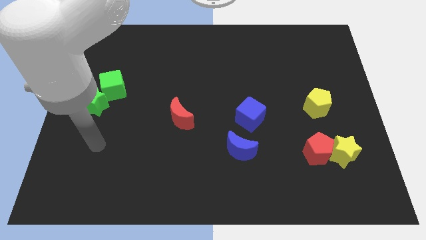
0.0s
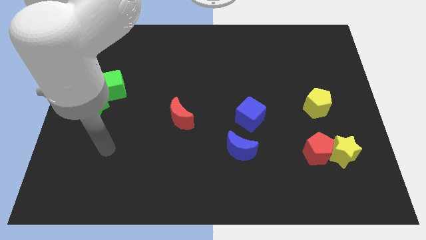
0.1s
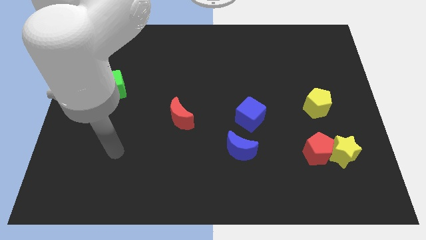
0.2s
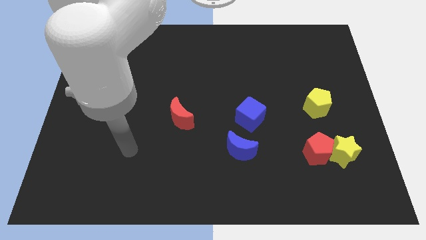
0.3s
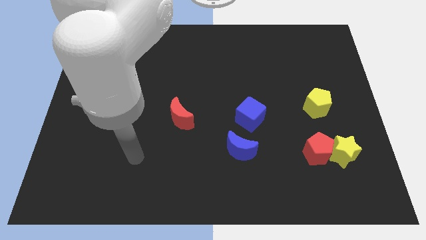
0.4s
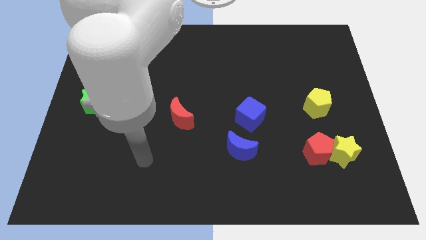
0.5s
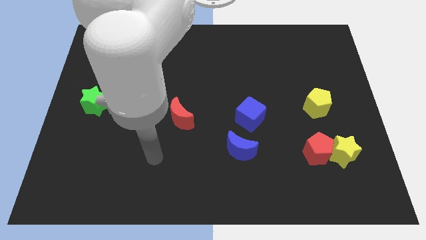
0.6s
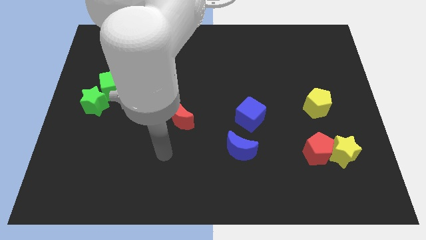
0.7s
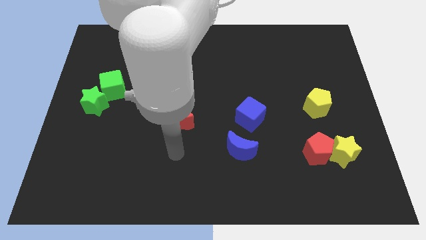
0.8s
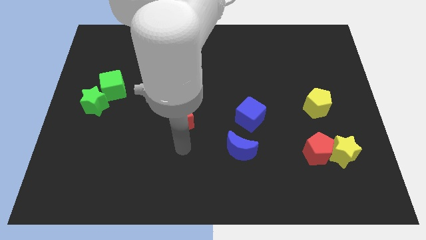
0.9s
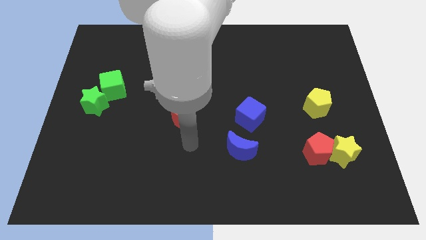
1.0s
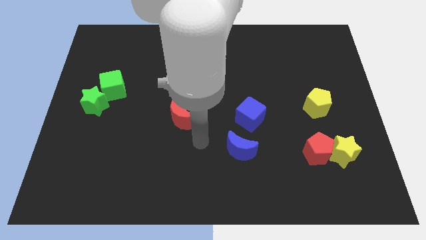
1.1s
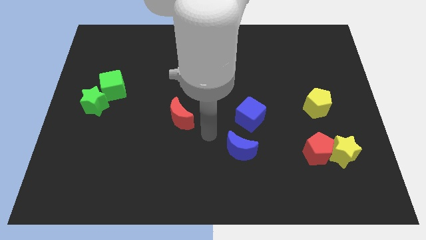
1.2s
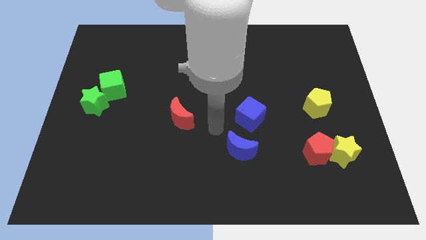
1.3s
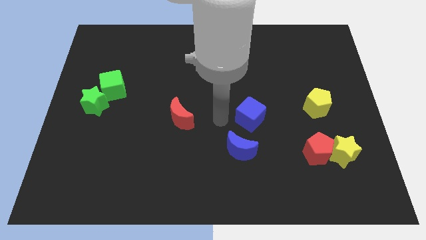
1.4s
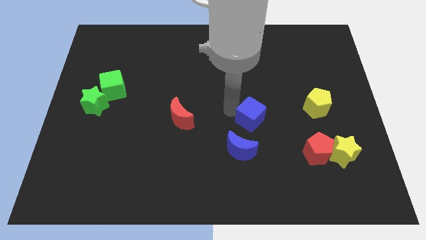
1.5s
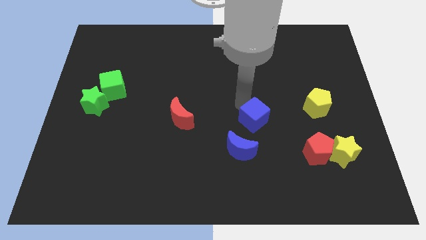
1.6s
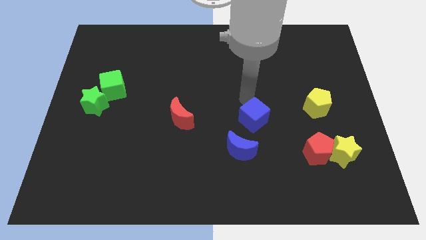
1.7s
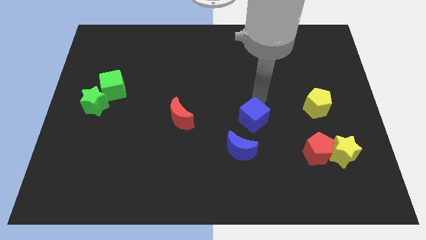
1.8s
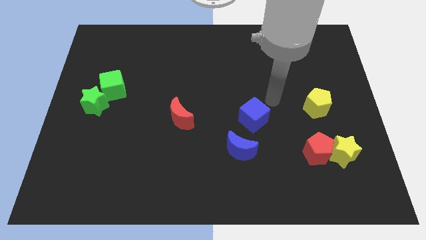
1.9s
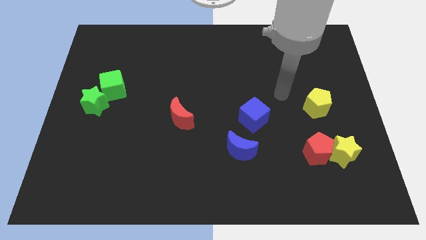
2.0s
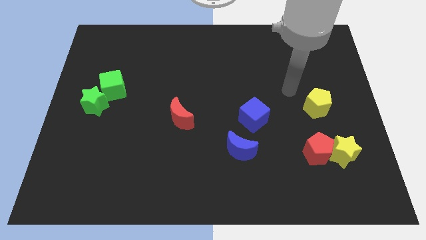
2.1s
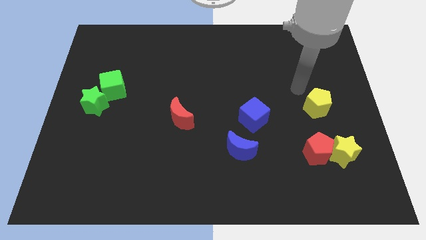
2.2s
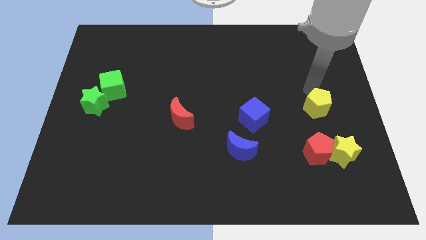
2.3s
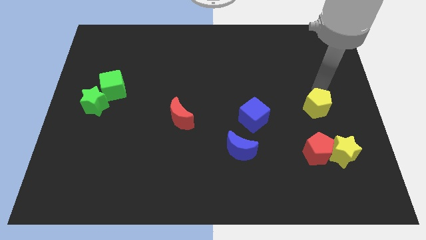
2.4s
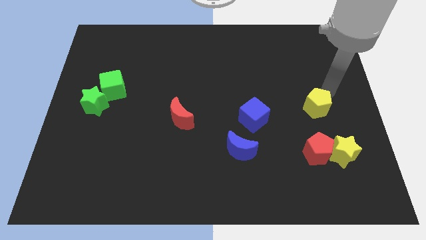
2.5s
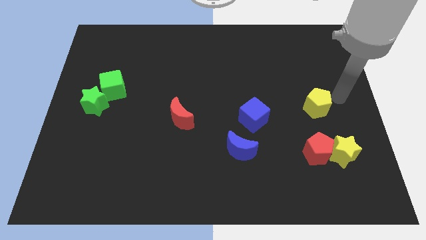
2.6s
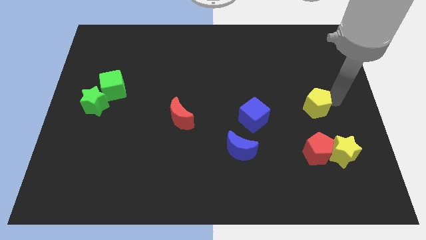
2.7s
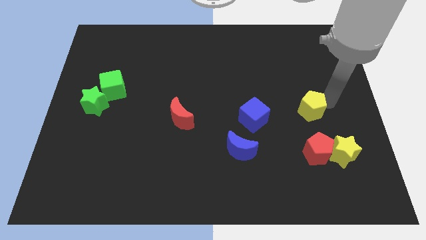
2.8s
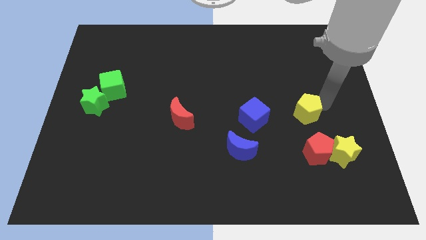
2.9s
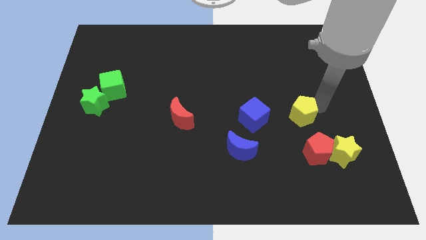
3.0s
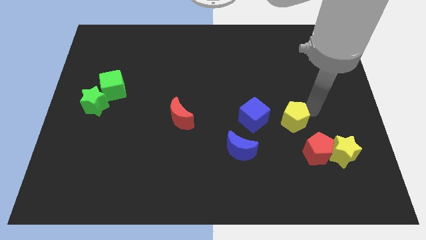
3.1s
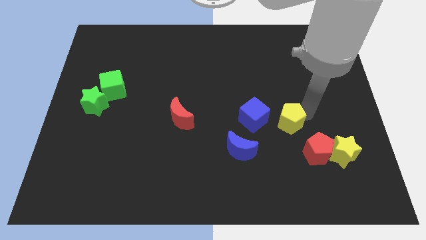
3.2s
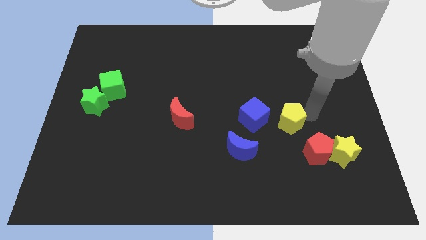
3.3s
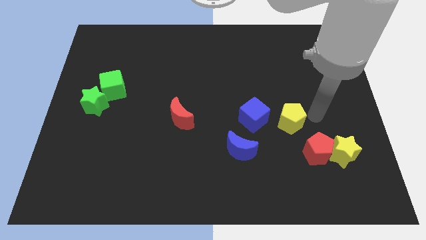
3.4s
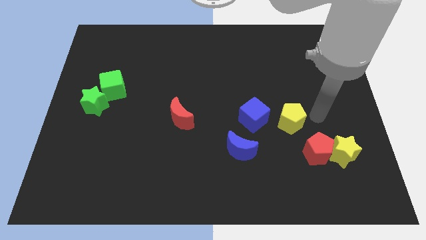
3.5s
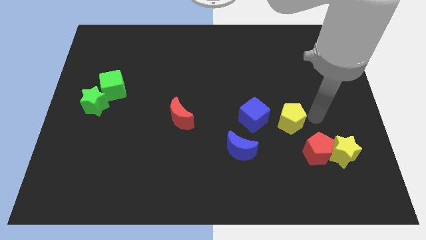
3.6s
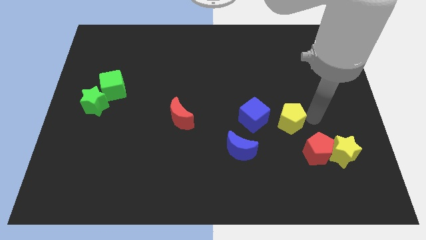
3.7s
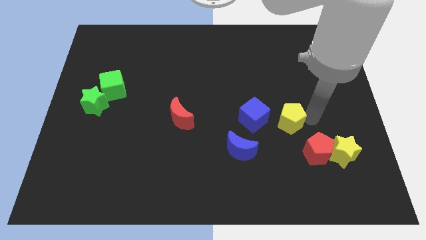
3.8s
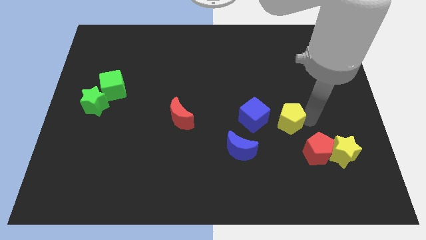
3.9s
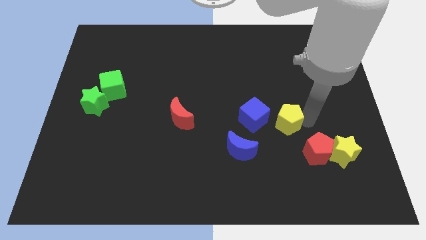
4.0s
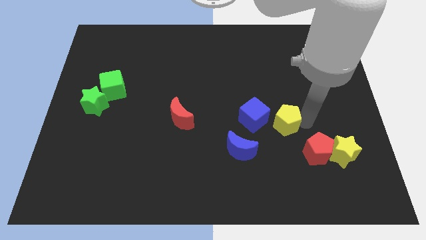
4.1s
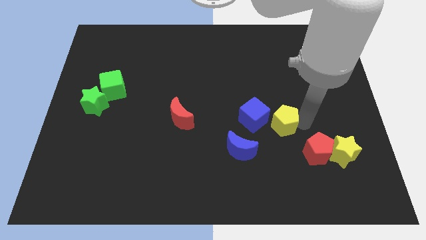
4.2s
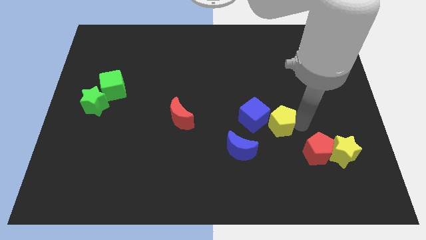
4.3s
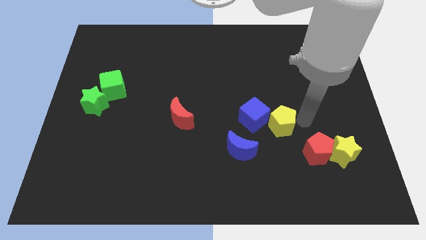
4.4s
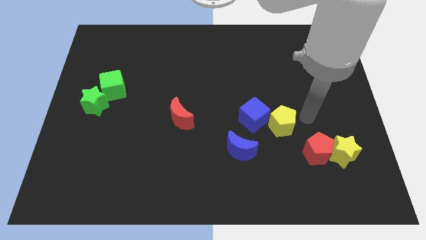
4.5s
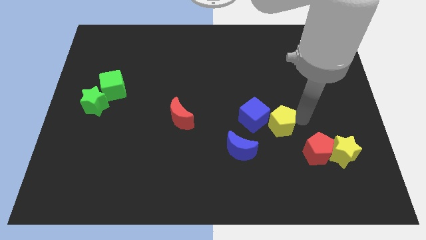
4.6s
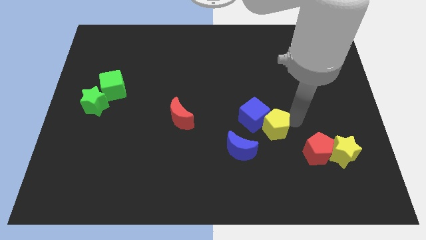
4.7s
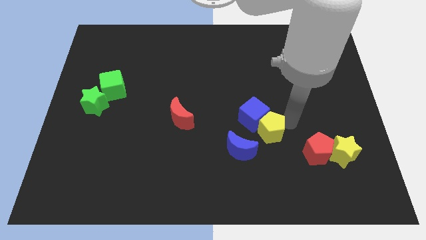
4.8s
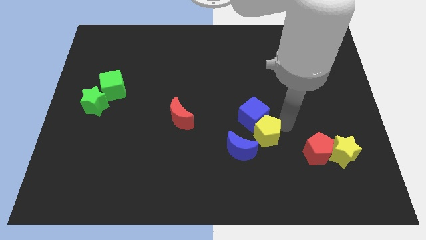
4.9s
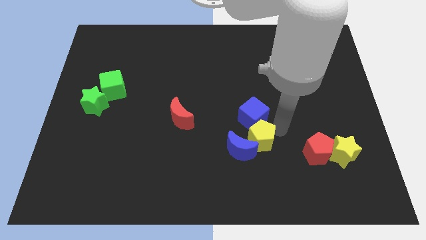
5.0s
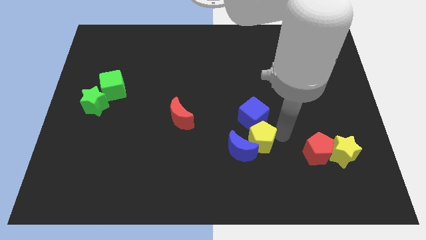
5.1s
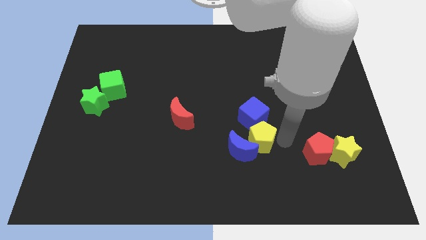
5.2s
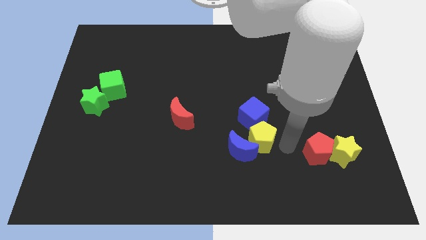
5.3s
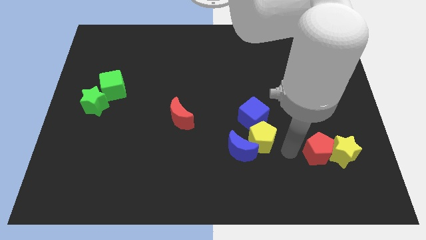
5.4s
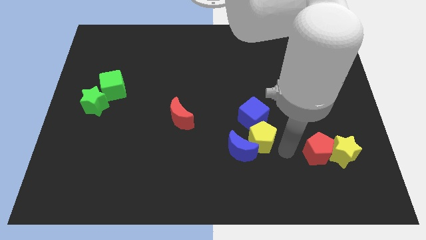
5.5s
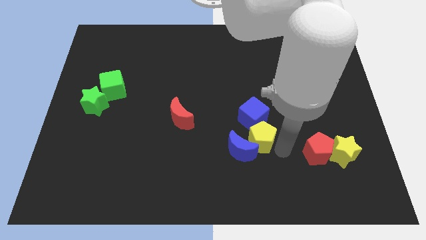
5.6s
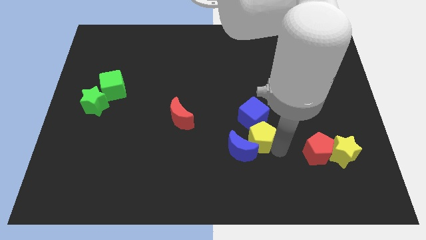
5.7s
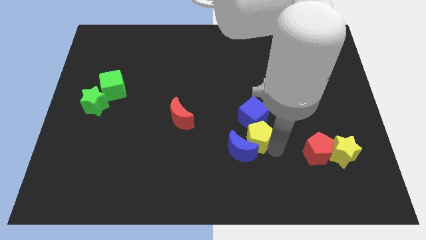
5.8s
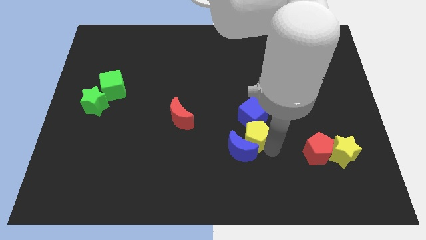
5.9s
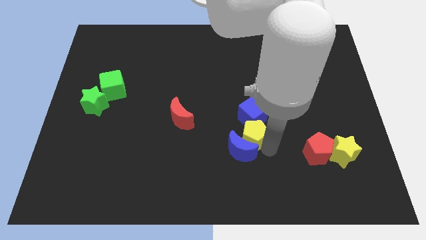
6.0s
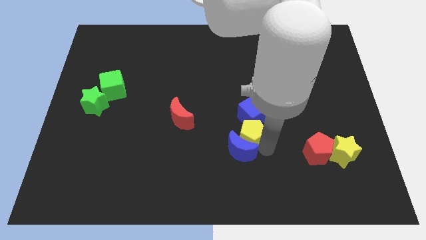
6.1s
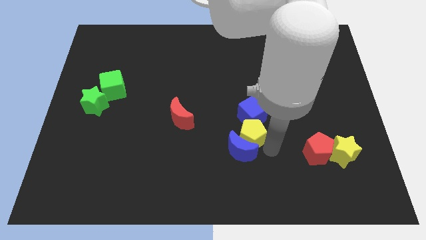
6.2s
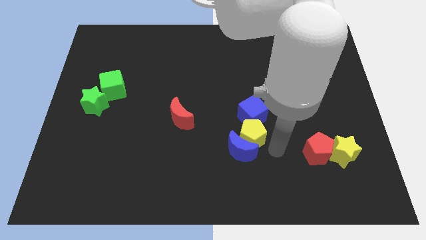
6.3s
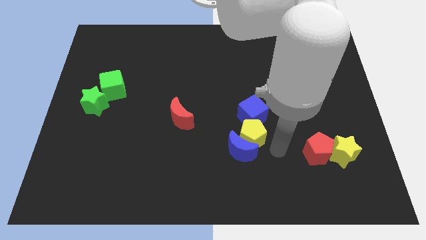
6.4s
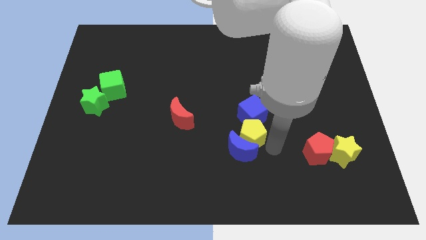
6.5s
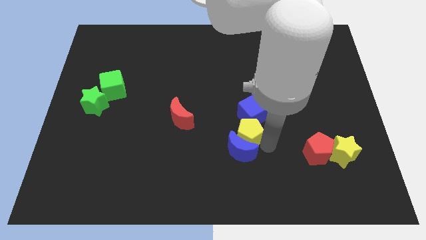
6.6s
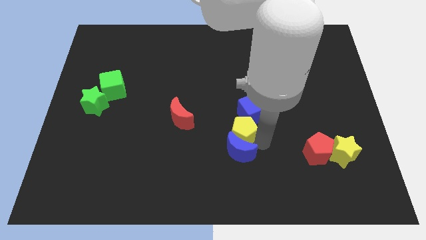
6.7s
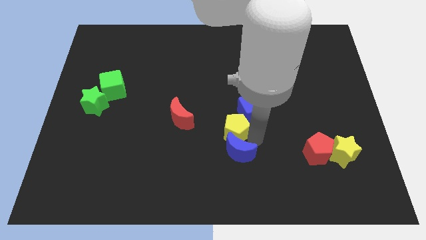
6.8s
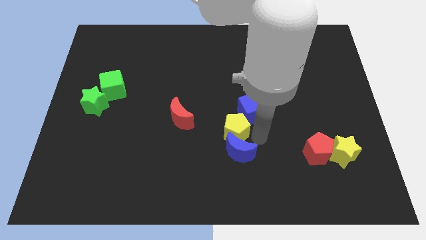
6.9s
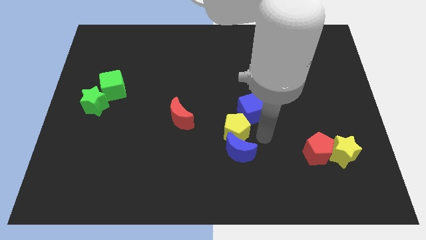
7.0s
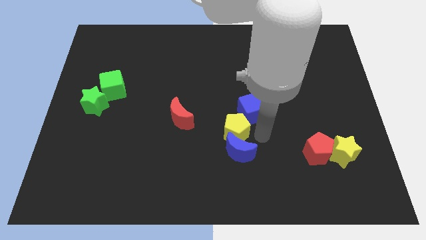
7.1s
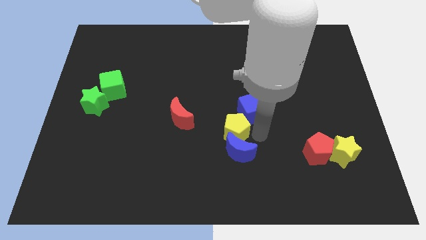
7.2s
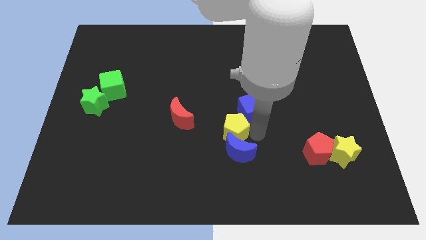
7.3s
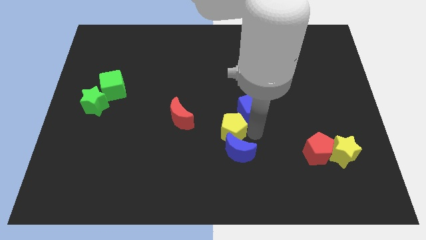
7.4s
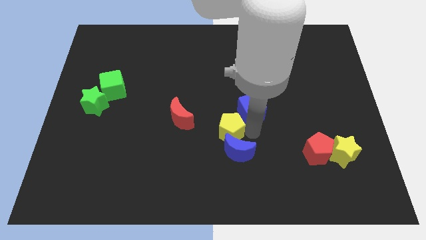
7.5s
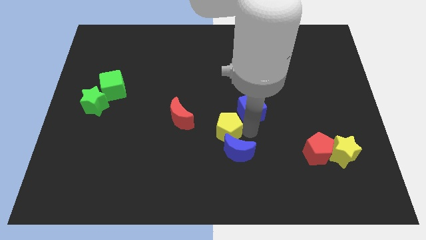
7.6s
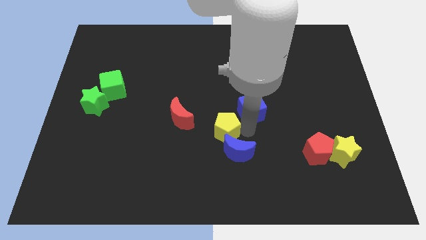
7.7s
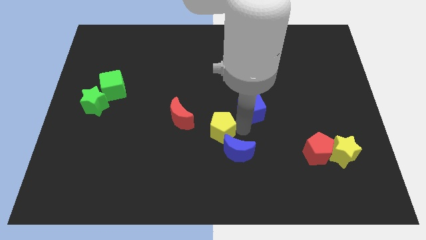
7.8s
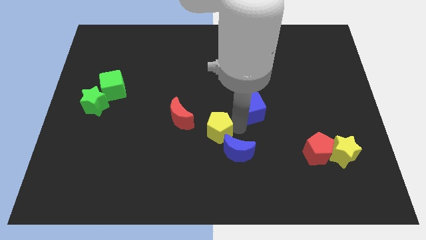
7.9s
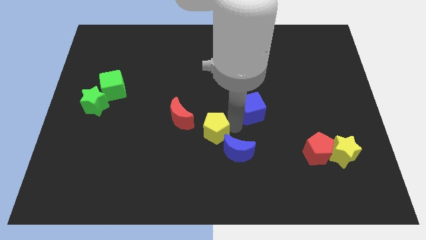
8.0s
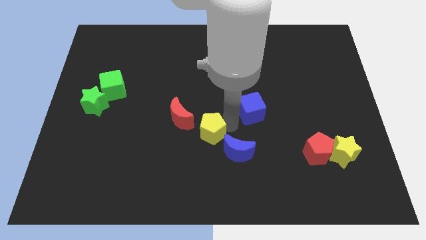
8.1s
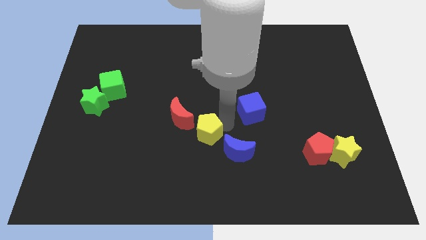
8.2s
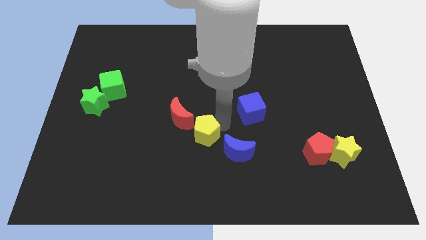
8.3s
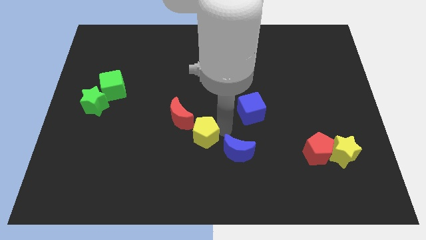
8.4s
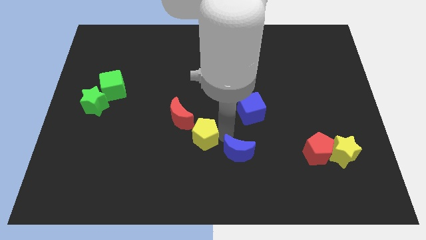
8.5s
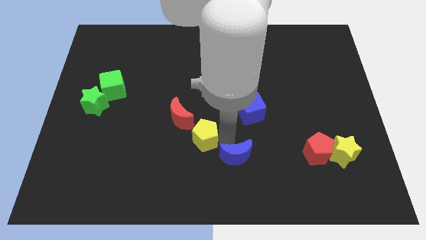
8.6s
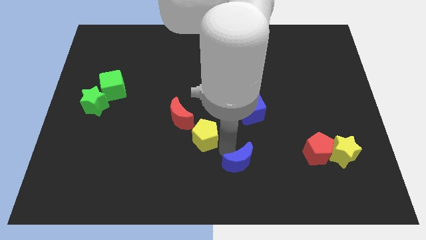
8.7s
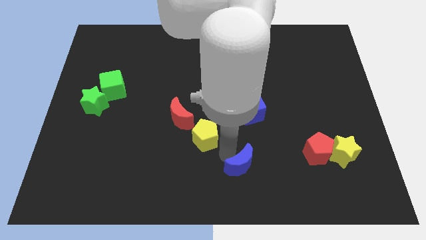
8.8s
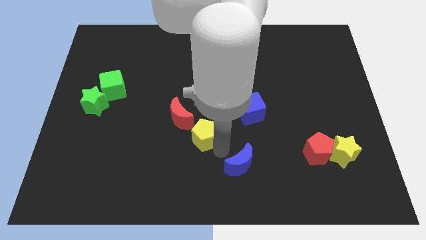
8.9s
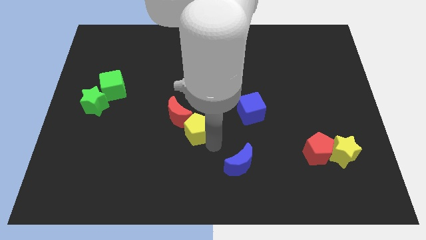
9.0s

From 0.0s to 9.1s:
move the yellow pentagon to the red moon
